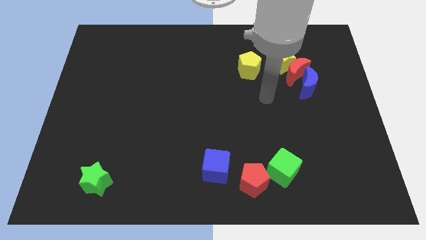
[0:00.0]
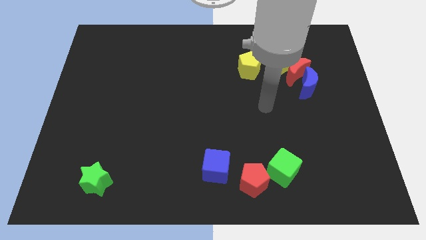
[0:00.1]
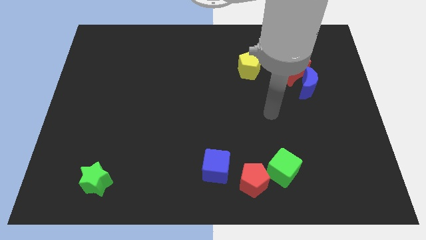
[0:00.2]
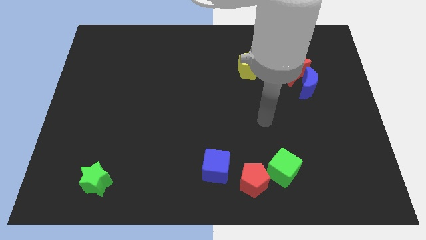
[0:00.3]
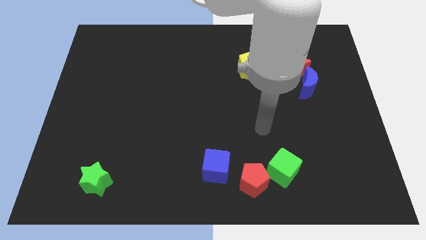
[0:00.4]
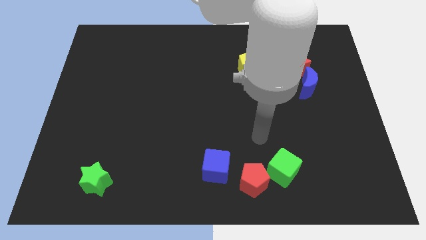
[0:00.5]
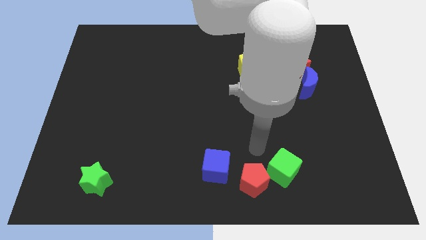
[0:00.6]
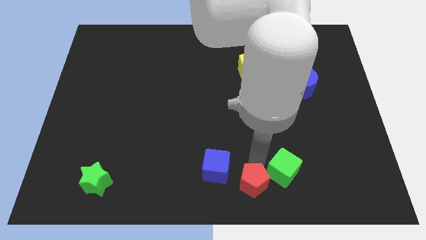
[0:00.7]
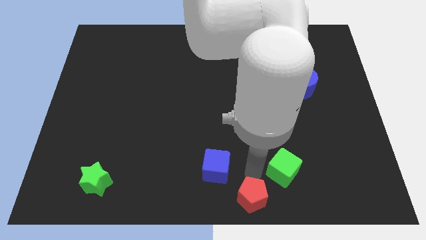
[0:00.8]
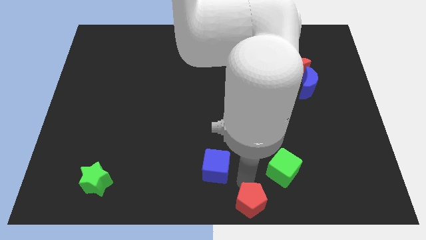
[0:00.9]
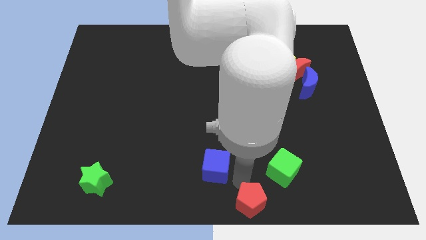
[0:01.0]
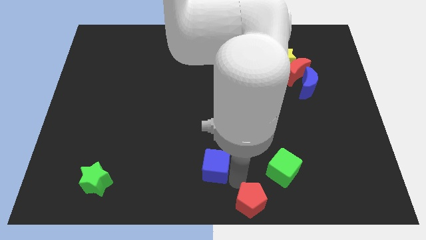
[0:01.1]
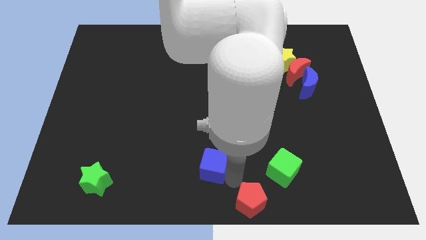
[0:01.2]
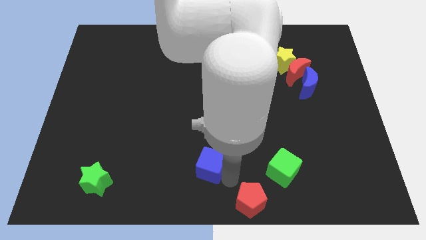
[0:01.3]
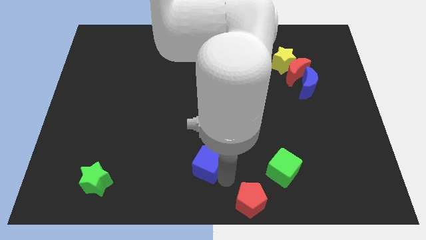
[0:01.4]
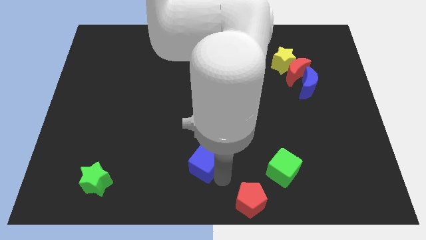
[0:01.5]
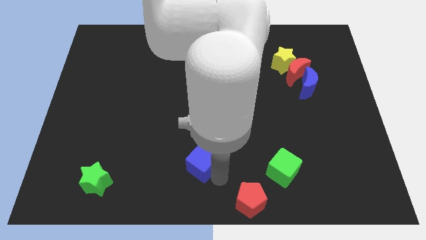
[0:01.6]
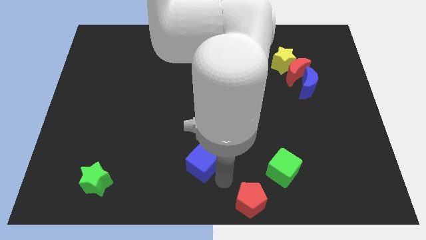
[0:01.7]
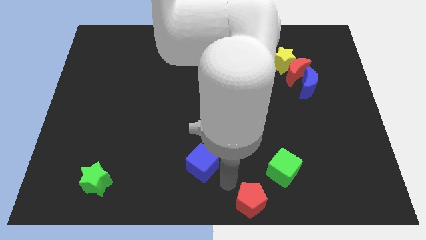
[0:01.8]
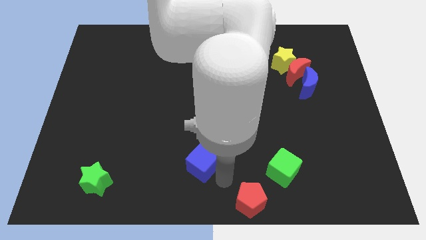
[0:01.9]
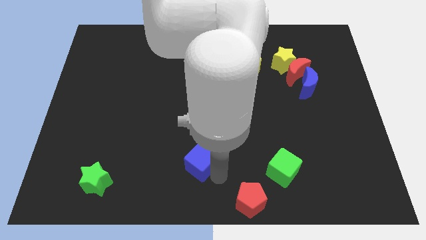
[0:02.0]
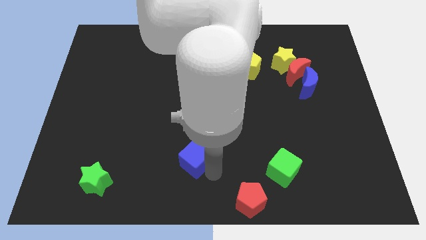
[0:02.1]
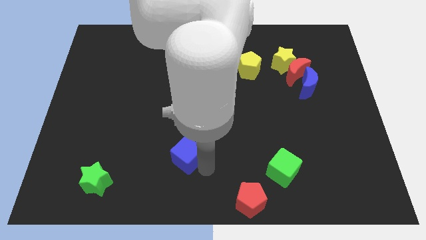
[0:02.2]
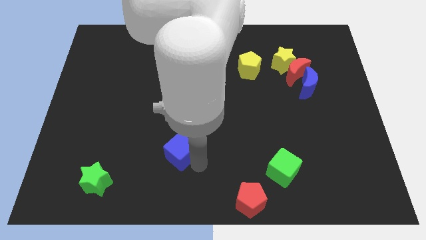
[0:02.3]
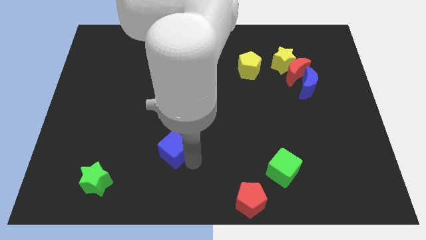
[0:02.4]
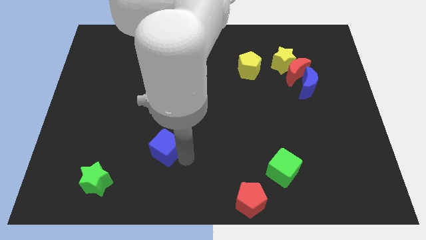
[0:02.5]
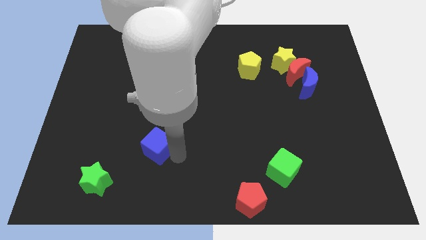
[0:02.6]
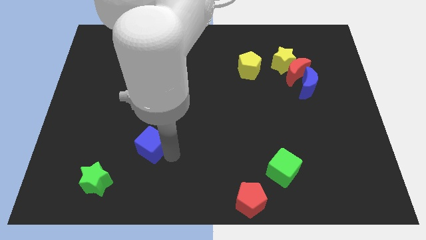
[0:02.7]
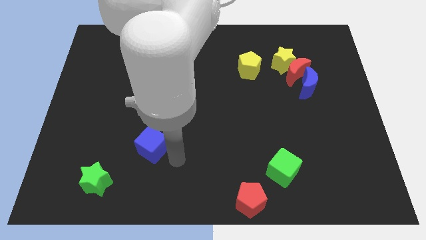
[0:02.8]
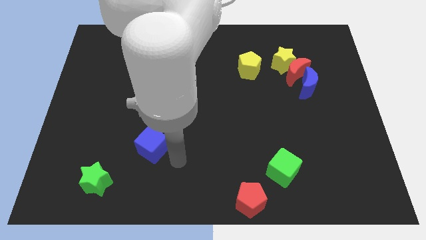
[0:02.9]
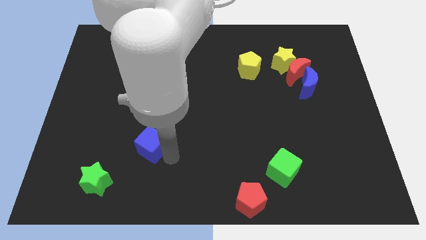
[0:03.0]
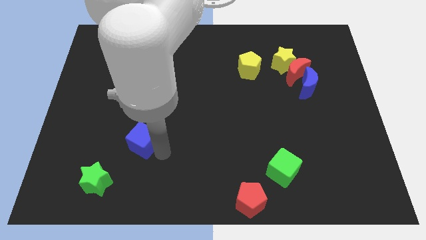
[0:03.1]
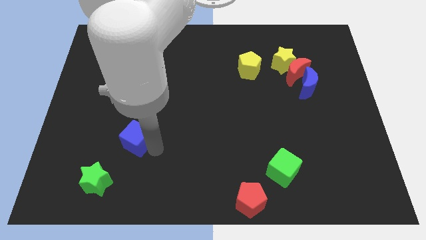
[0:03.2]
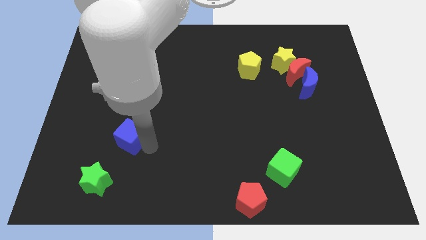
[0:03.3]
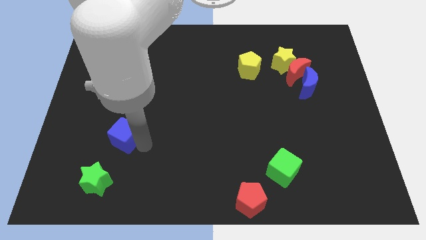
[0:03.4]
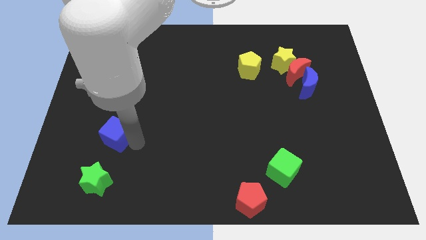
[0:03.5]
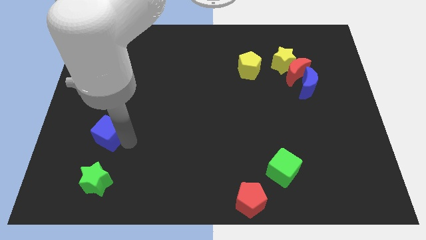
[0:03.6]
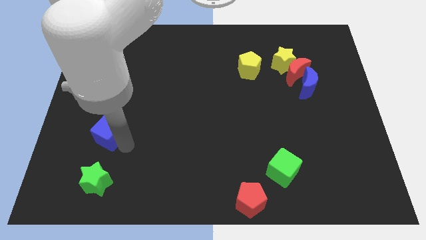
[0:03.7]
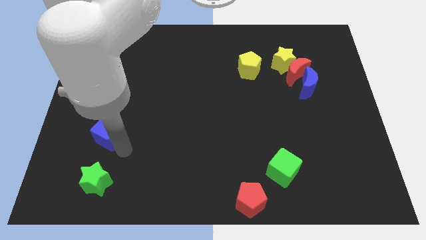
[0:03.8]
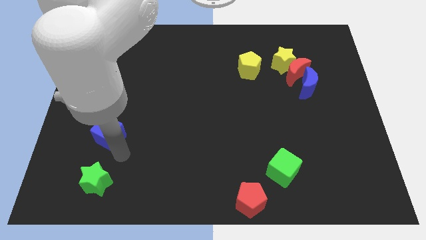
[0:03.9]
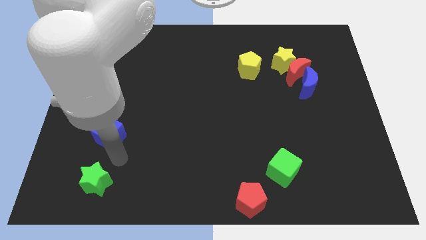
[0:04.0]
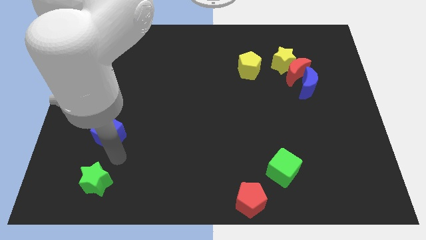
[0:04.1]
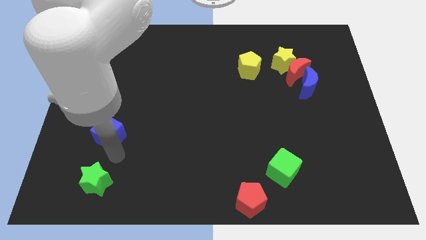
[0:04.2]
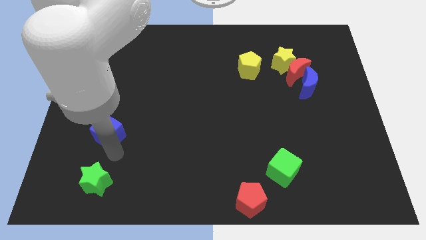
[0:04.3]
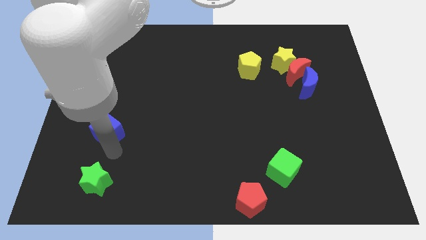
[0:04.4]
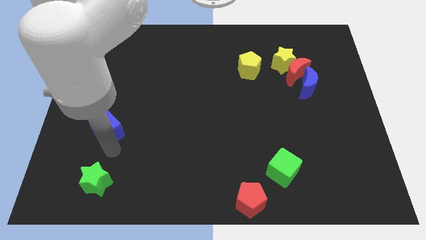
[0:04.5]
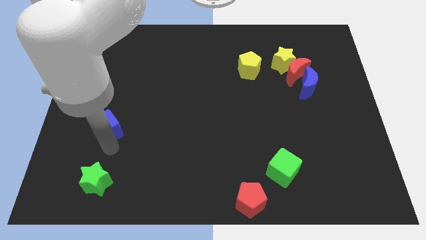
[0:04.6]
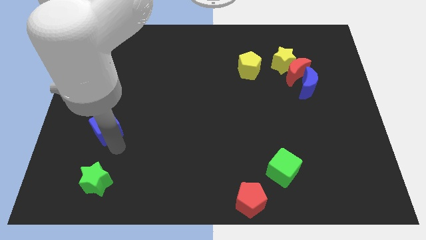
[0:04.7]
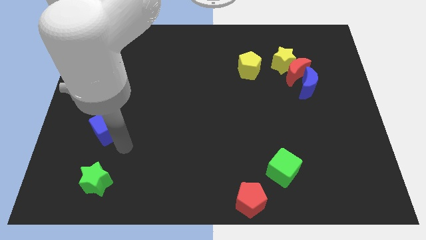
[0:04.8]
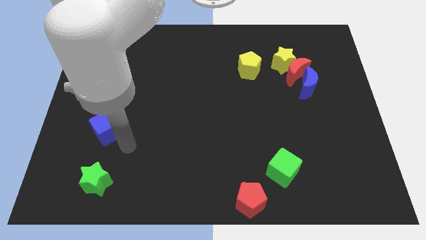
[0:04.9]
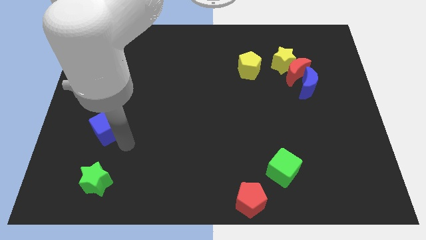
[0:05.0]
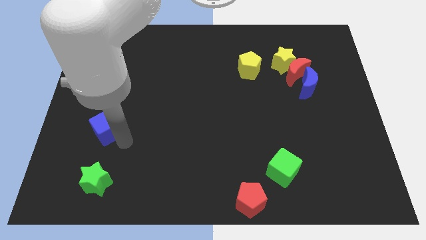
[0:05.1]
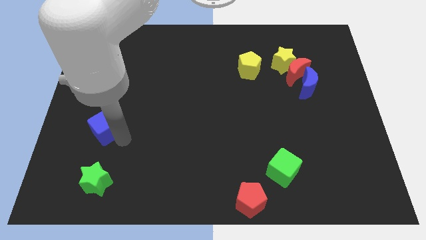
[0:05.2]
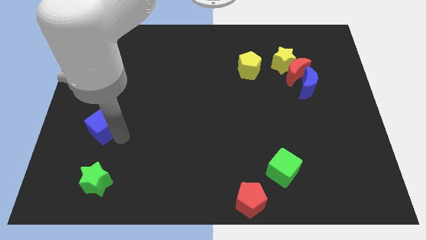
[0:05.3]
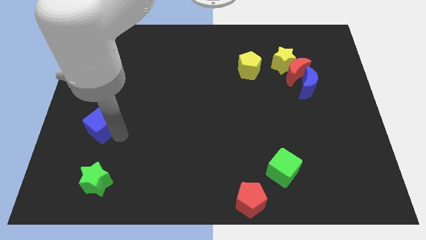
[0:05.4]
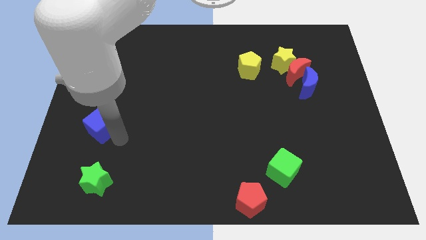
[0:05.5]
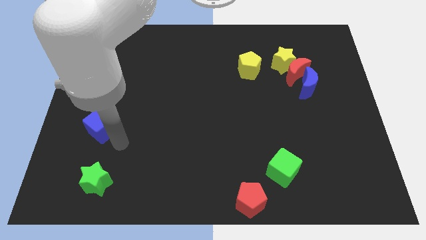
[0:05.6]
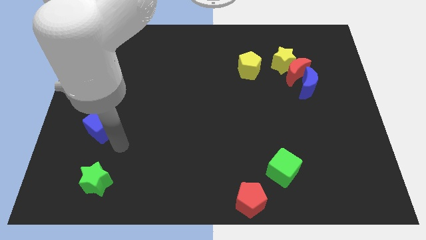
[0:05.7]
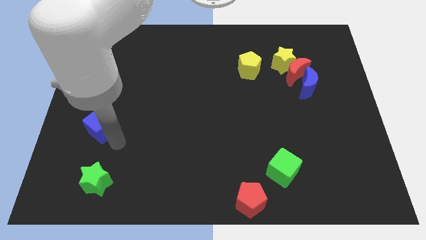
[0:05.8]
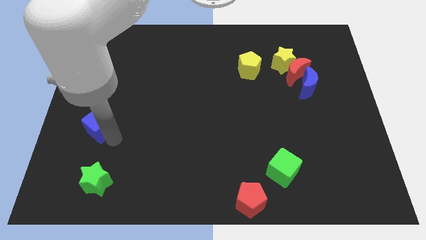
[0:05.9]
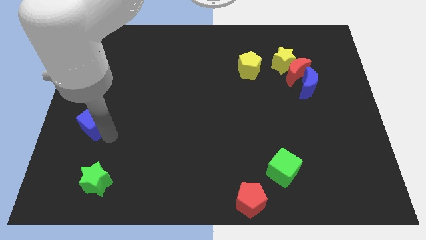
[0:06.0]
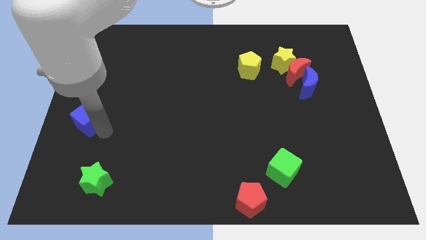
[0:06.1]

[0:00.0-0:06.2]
slide the blue cube to the left side
